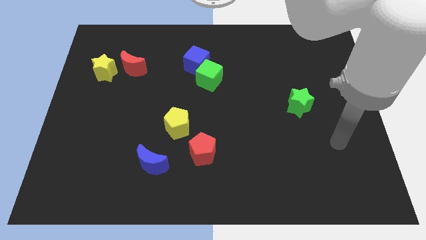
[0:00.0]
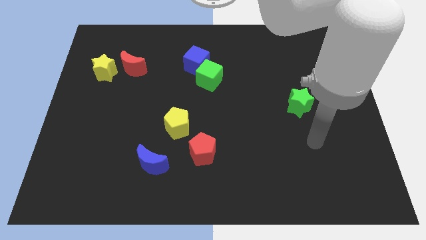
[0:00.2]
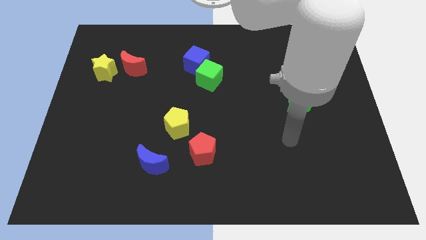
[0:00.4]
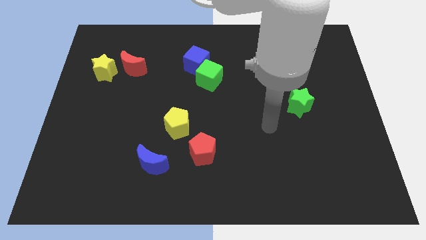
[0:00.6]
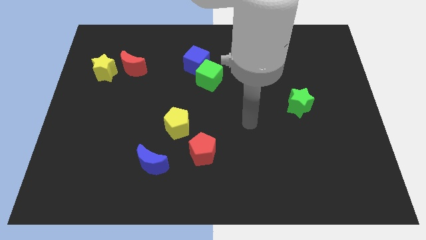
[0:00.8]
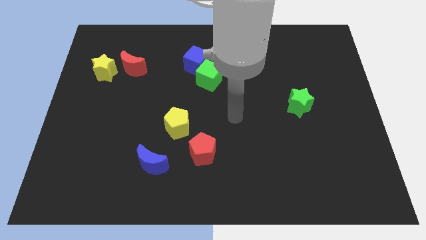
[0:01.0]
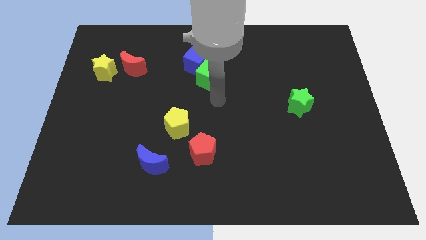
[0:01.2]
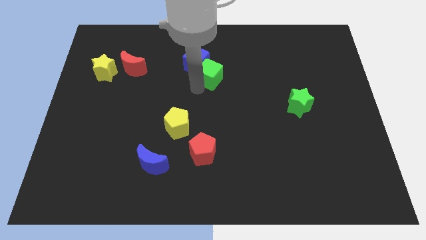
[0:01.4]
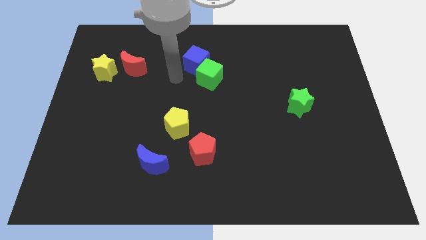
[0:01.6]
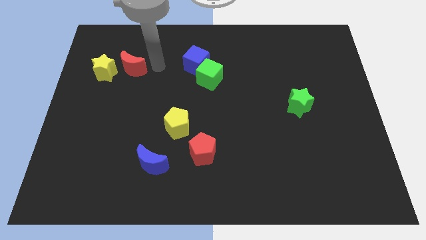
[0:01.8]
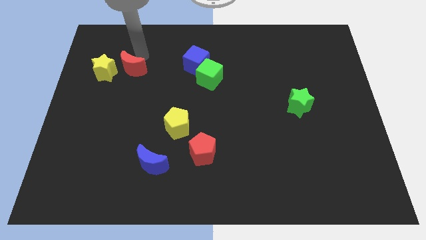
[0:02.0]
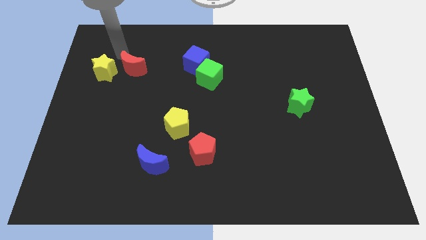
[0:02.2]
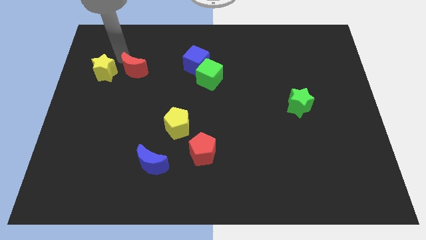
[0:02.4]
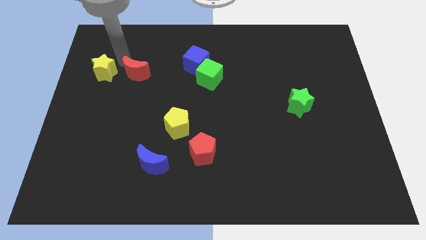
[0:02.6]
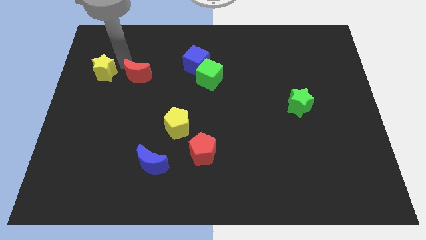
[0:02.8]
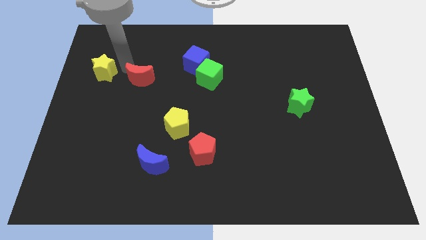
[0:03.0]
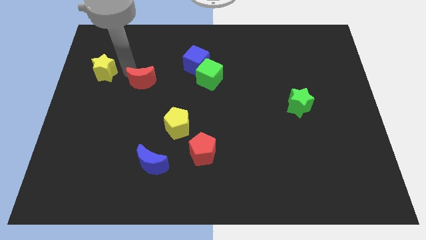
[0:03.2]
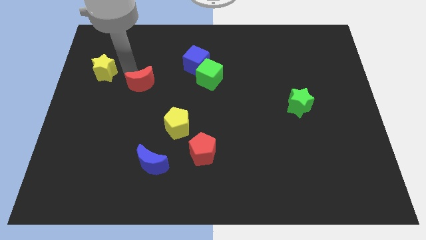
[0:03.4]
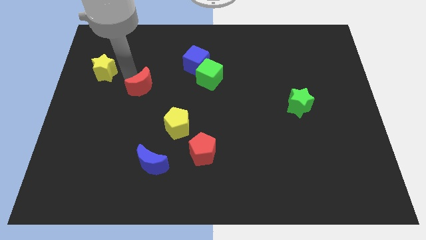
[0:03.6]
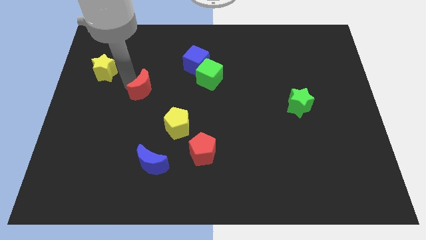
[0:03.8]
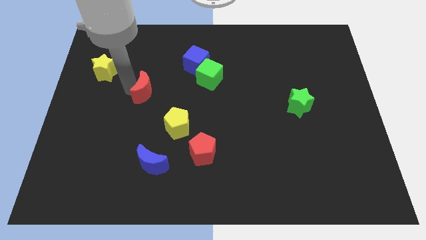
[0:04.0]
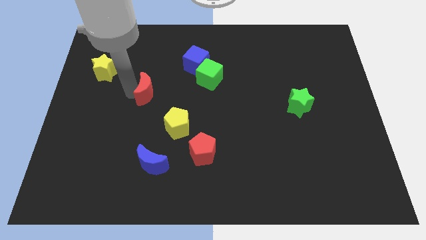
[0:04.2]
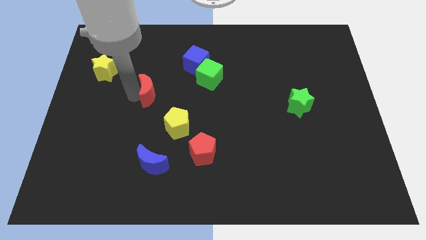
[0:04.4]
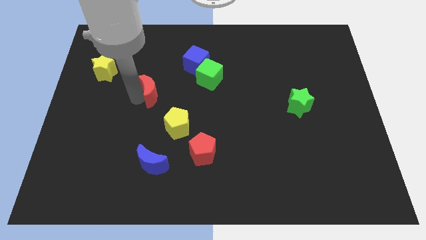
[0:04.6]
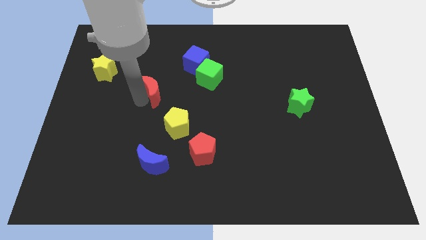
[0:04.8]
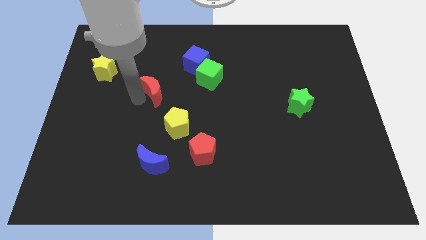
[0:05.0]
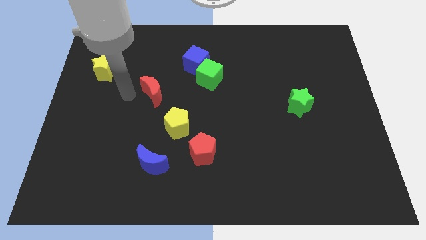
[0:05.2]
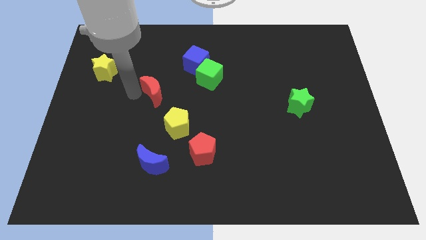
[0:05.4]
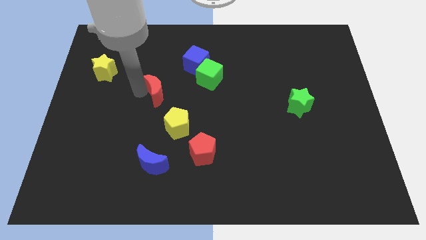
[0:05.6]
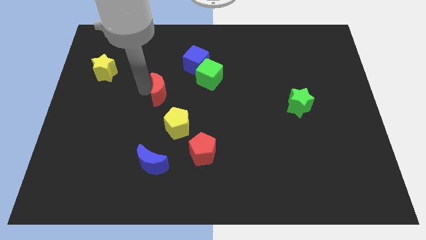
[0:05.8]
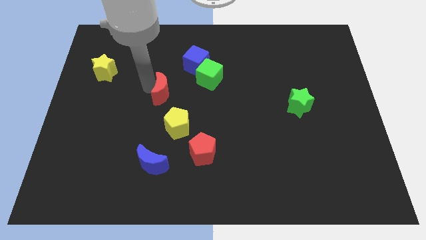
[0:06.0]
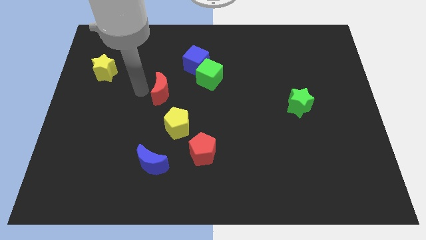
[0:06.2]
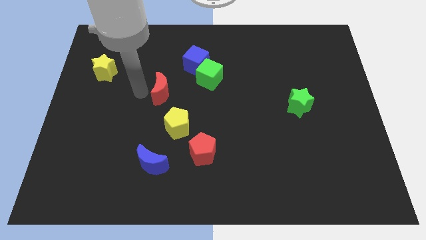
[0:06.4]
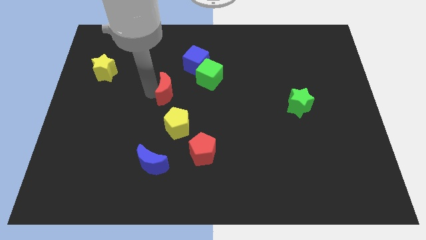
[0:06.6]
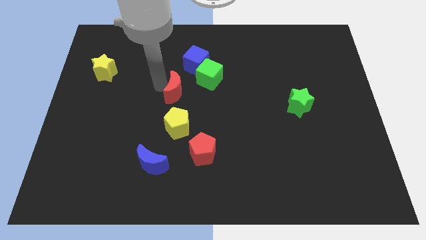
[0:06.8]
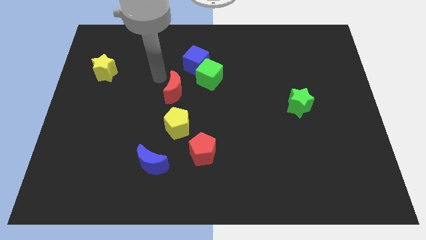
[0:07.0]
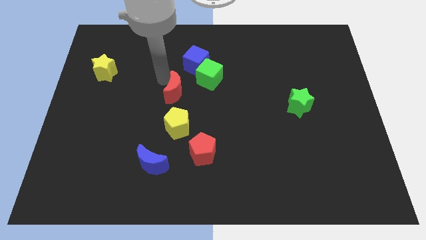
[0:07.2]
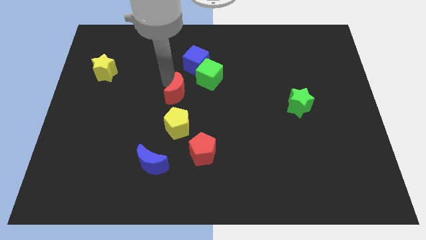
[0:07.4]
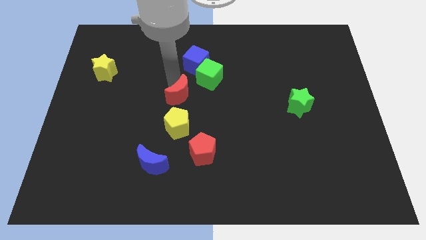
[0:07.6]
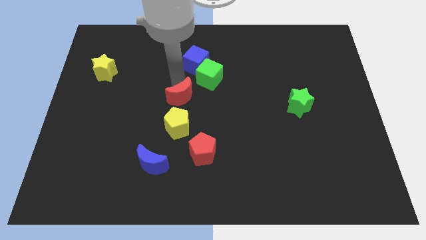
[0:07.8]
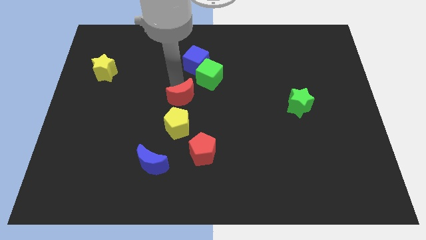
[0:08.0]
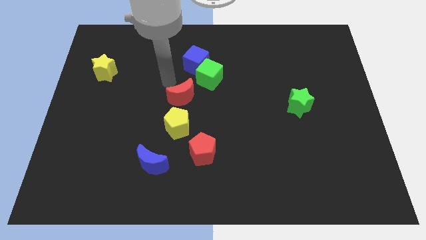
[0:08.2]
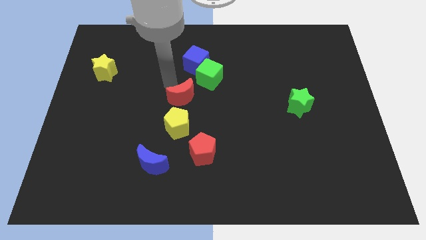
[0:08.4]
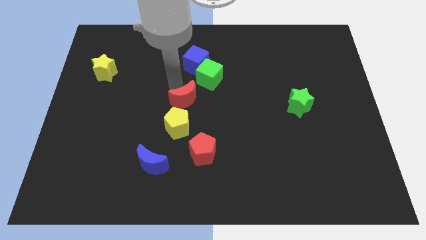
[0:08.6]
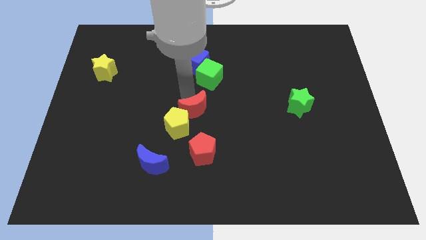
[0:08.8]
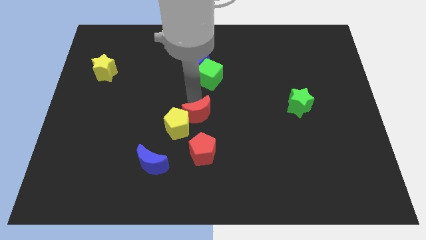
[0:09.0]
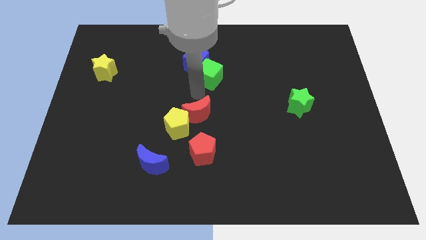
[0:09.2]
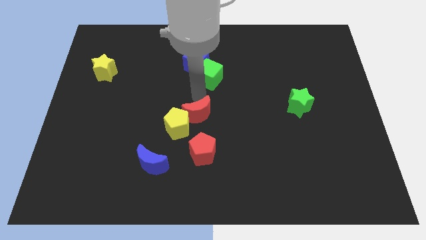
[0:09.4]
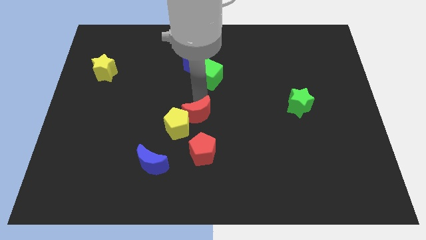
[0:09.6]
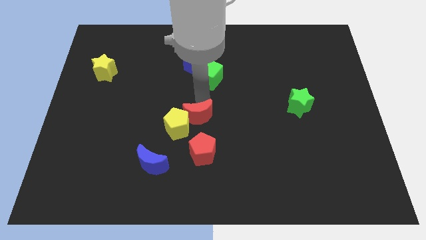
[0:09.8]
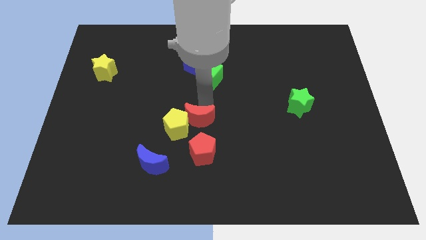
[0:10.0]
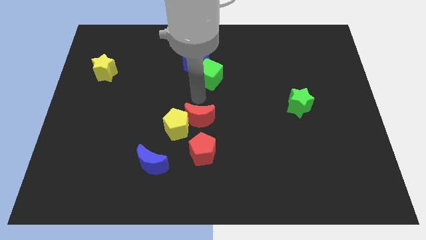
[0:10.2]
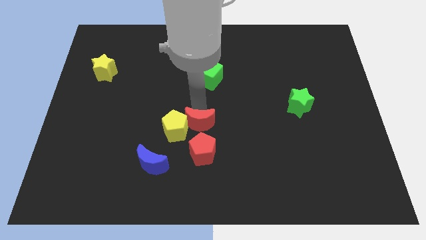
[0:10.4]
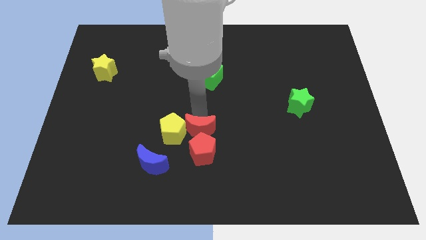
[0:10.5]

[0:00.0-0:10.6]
push the red moon to the red pentagon

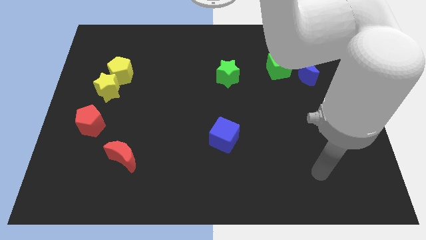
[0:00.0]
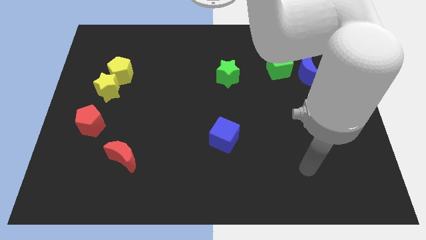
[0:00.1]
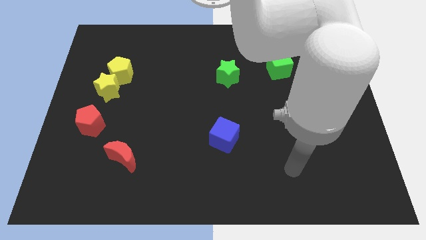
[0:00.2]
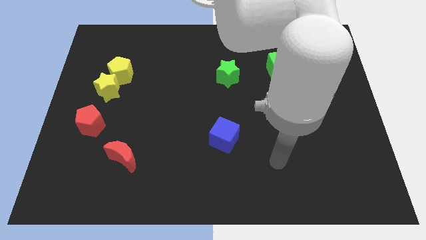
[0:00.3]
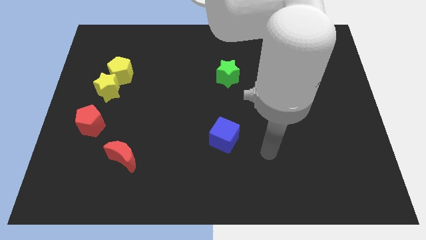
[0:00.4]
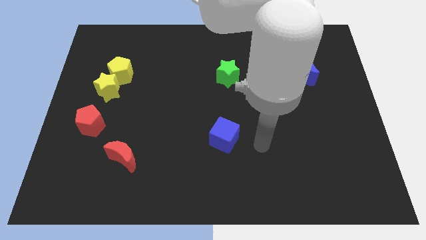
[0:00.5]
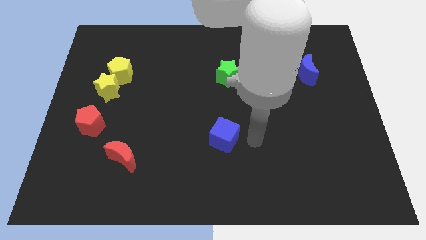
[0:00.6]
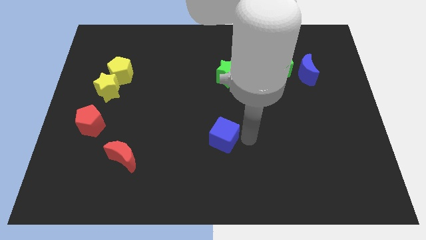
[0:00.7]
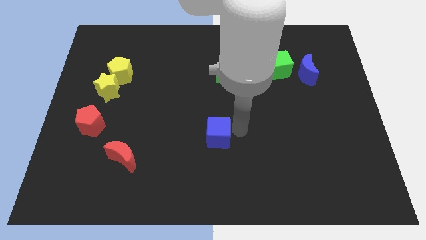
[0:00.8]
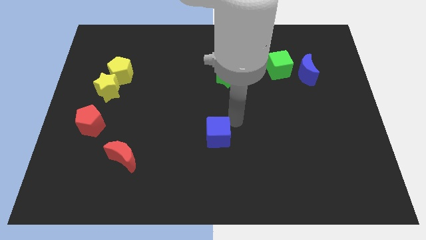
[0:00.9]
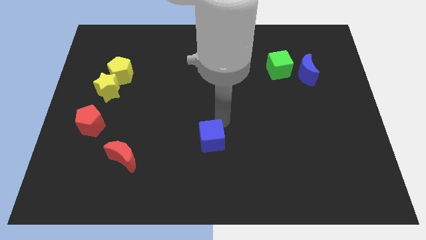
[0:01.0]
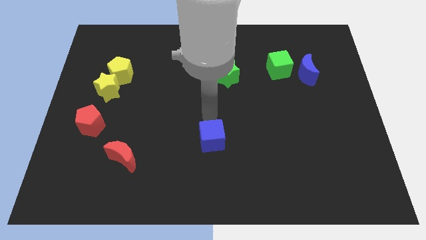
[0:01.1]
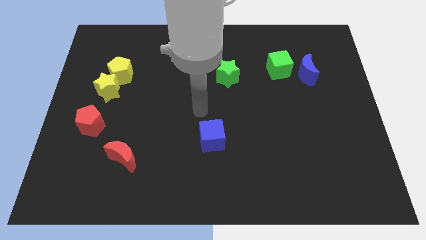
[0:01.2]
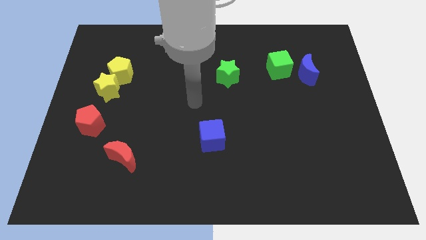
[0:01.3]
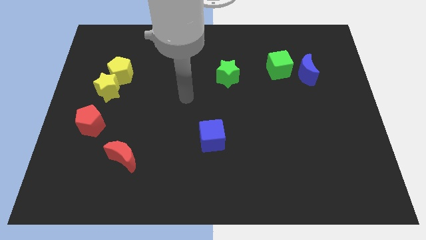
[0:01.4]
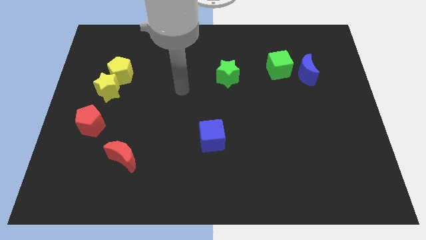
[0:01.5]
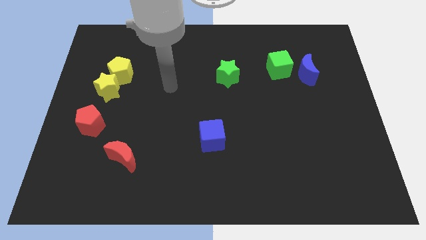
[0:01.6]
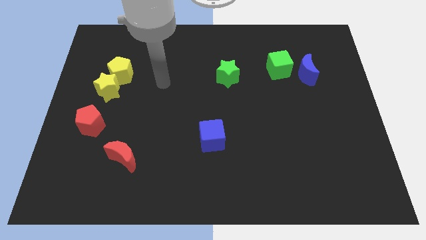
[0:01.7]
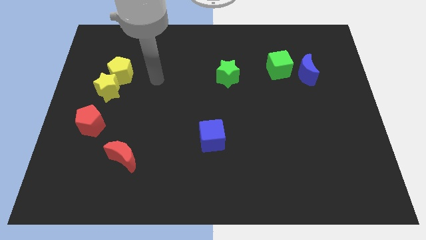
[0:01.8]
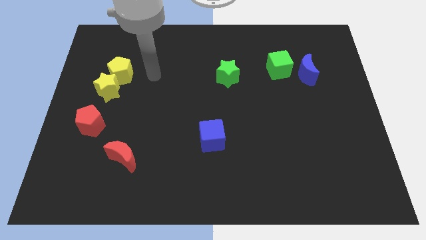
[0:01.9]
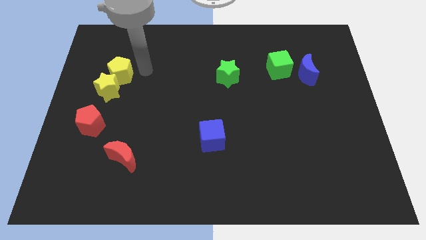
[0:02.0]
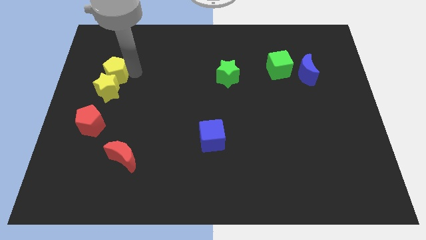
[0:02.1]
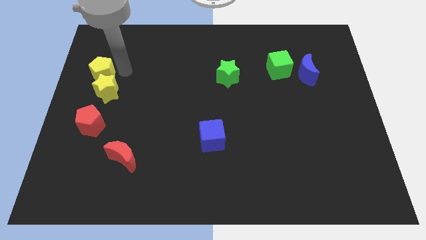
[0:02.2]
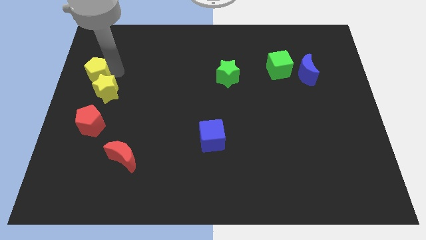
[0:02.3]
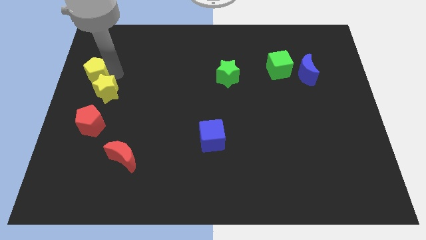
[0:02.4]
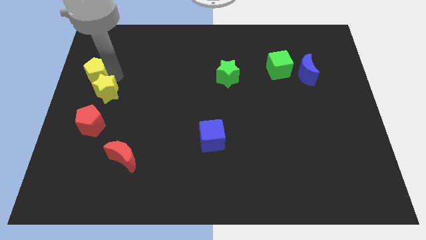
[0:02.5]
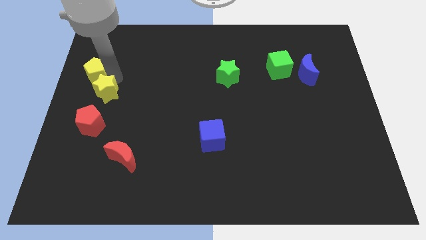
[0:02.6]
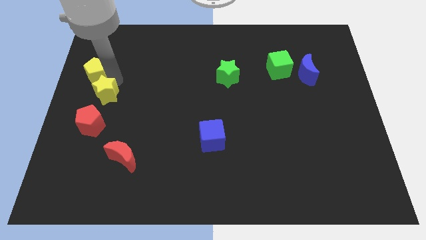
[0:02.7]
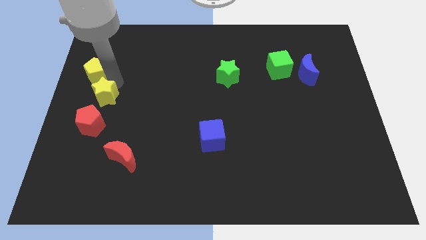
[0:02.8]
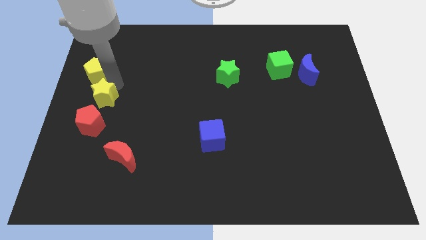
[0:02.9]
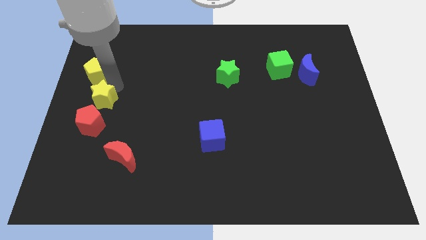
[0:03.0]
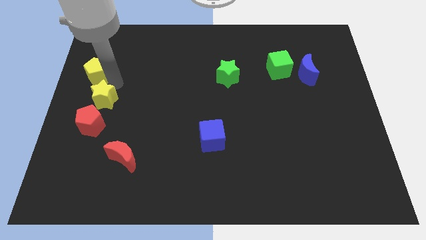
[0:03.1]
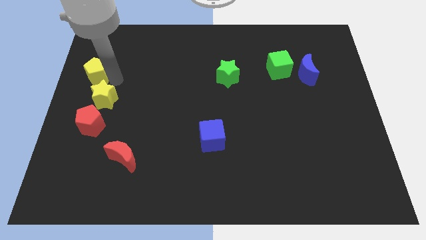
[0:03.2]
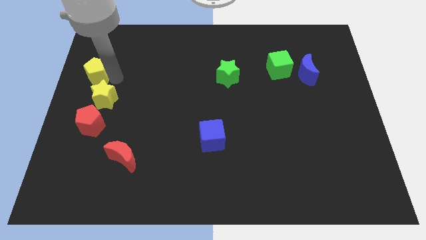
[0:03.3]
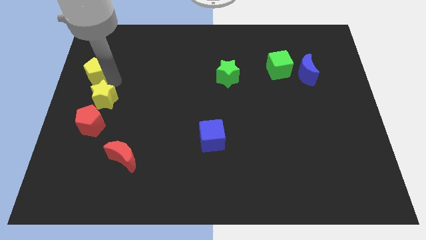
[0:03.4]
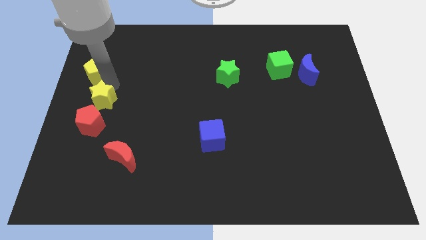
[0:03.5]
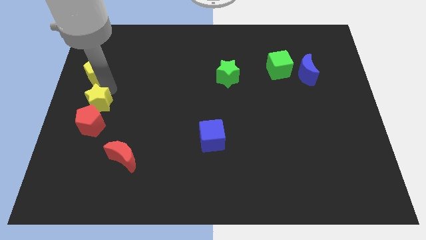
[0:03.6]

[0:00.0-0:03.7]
slide the yellow star close to the red pentagon
